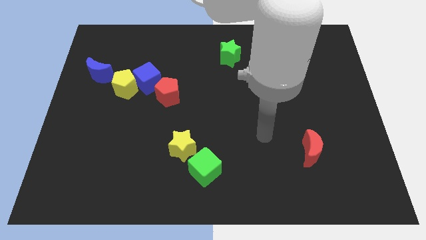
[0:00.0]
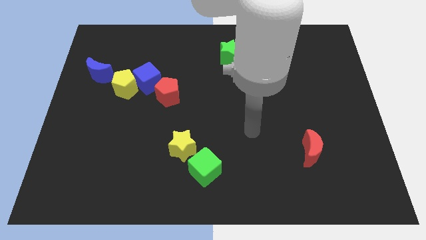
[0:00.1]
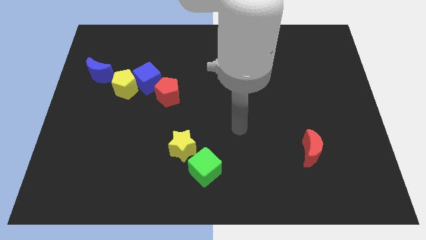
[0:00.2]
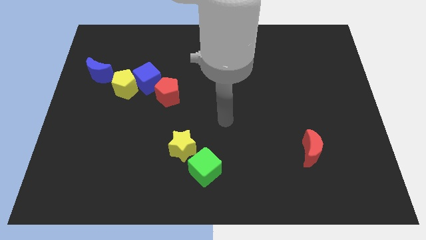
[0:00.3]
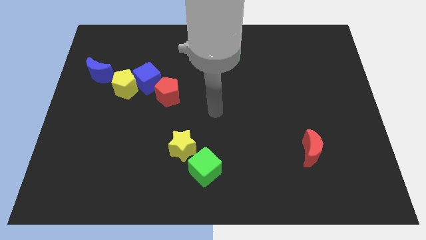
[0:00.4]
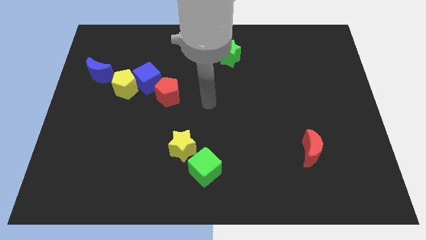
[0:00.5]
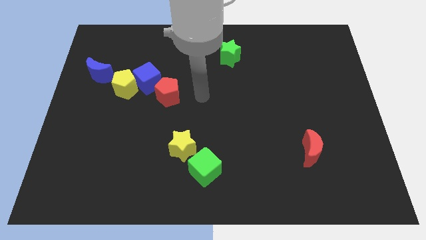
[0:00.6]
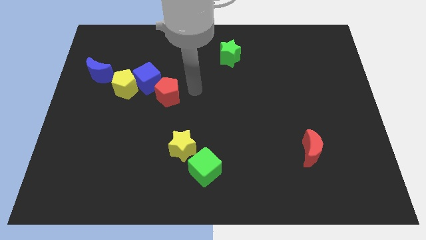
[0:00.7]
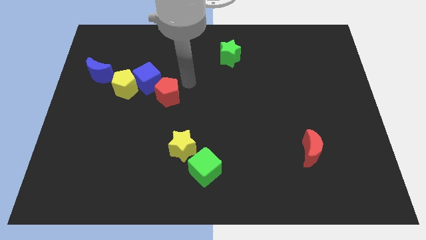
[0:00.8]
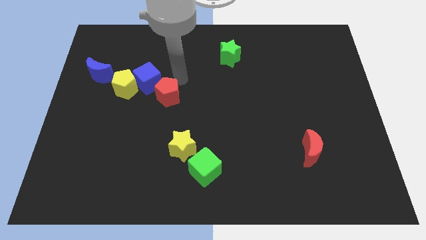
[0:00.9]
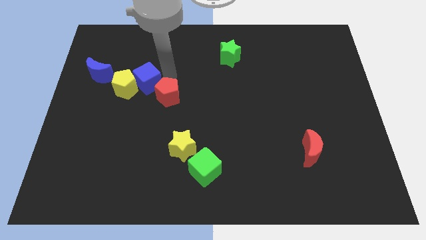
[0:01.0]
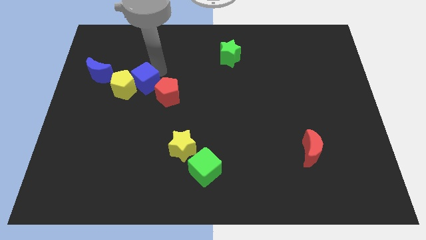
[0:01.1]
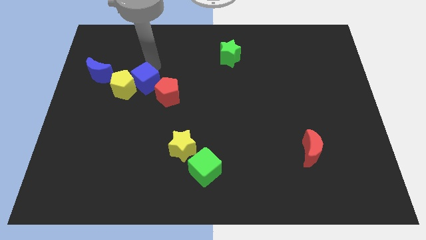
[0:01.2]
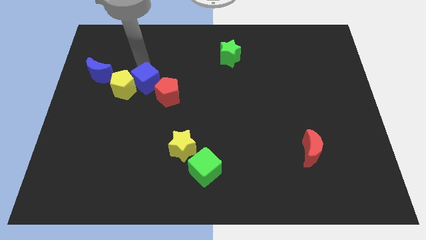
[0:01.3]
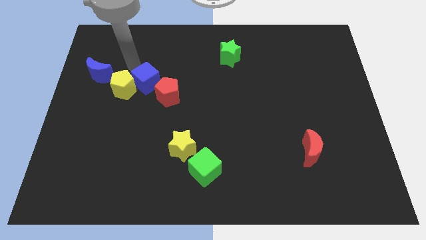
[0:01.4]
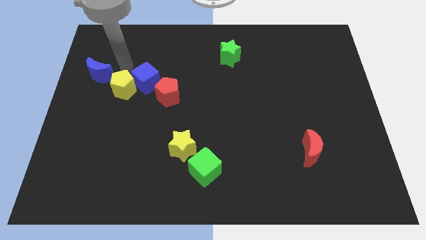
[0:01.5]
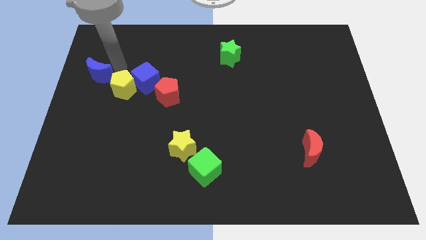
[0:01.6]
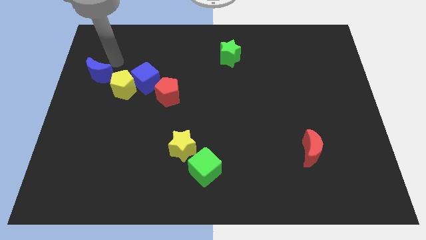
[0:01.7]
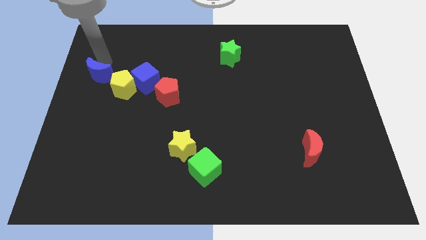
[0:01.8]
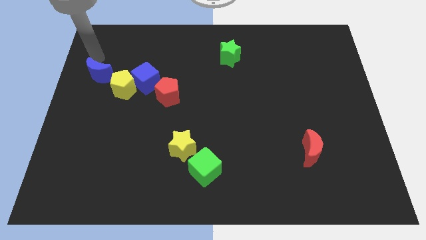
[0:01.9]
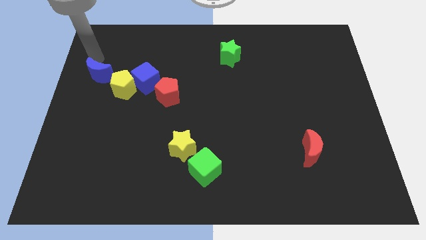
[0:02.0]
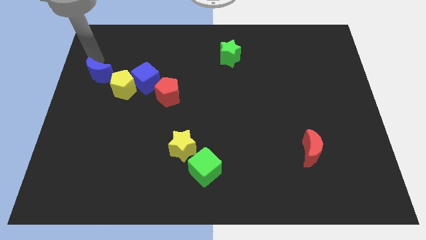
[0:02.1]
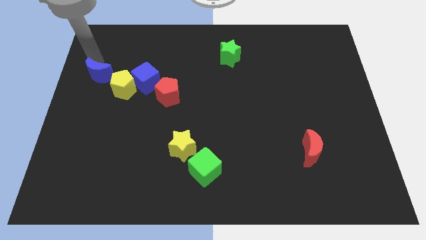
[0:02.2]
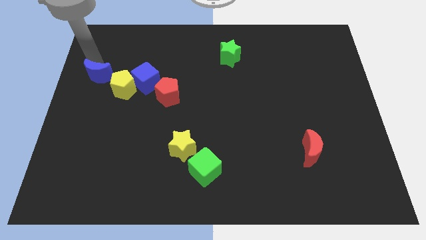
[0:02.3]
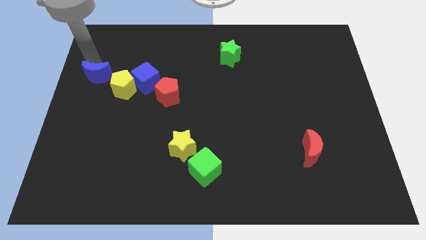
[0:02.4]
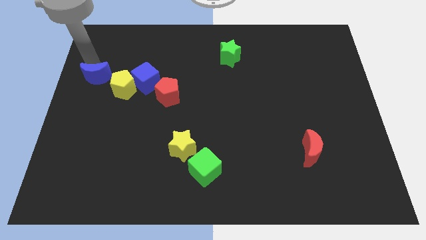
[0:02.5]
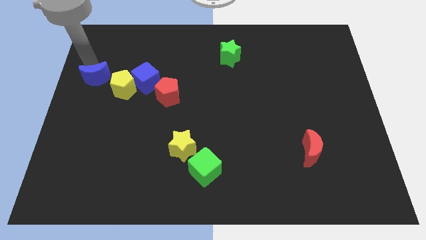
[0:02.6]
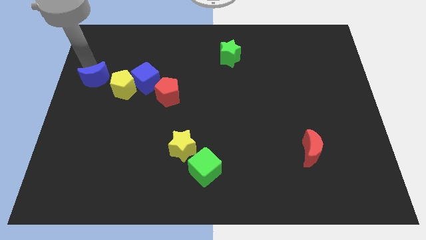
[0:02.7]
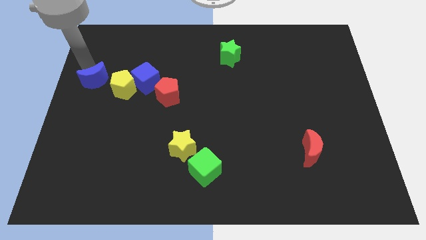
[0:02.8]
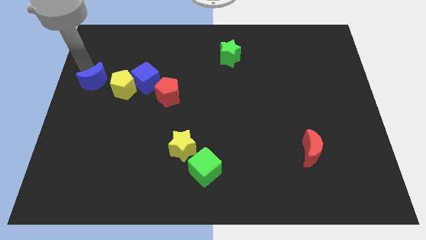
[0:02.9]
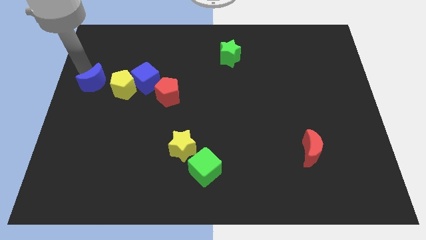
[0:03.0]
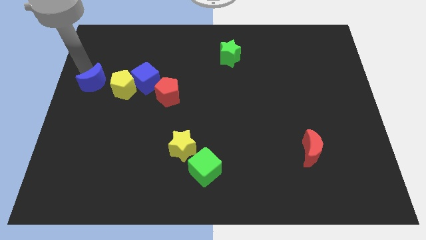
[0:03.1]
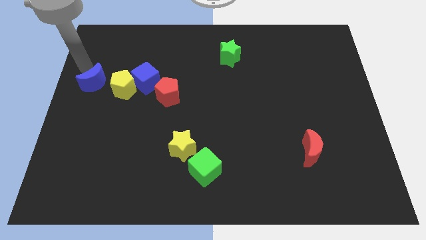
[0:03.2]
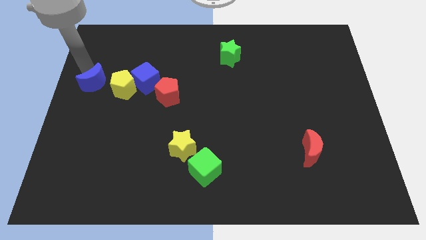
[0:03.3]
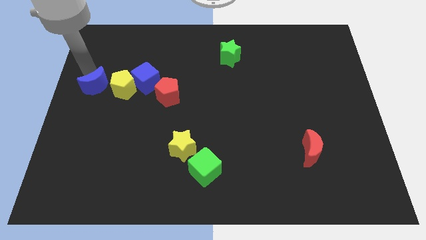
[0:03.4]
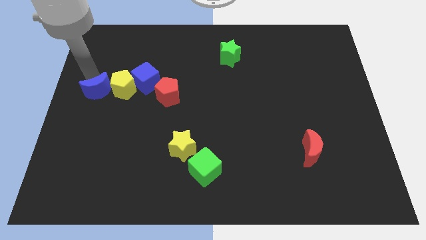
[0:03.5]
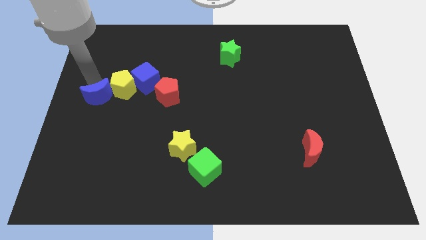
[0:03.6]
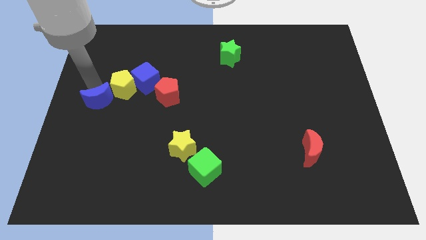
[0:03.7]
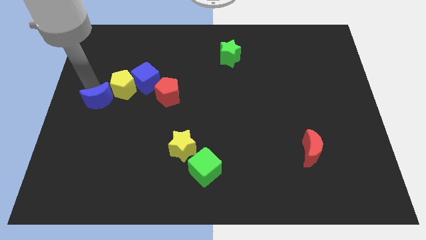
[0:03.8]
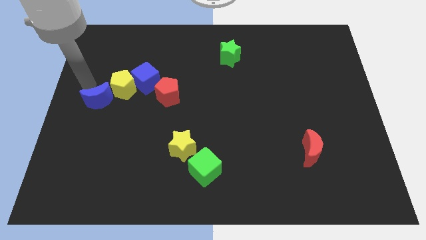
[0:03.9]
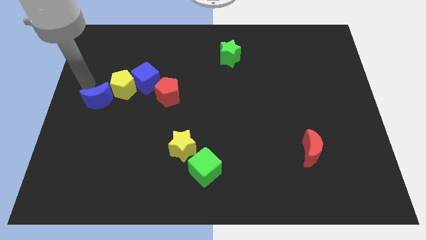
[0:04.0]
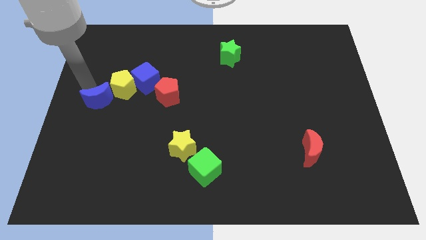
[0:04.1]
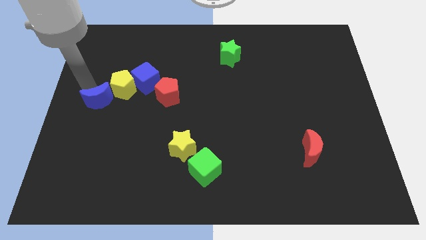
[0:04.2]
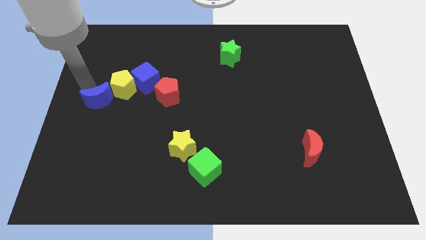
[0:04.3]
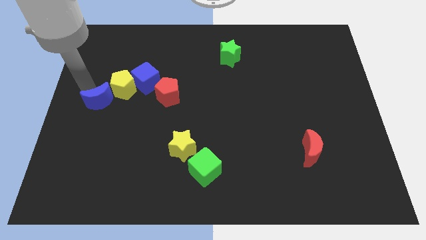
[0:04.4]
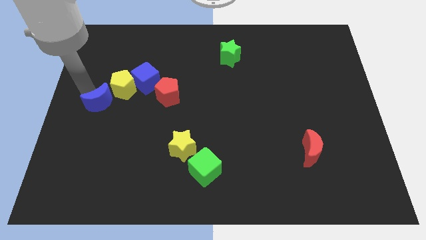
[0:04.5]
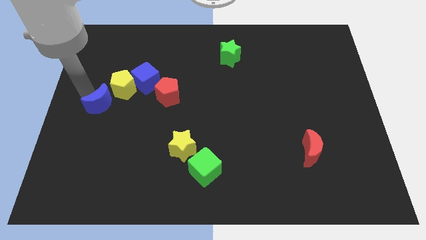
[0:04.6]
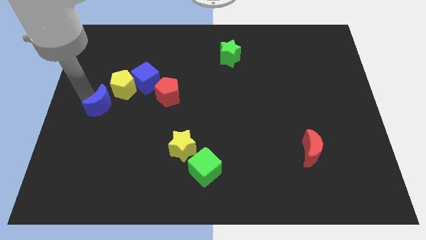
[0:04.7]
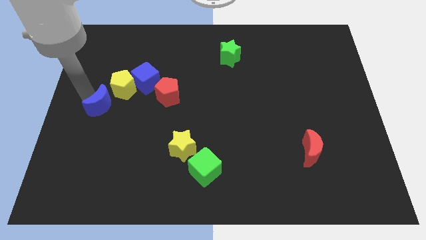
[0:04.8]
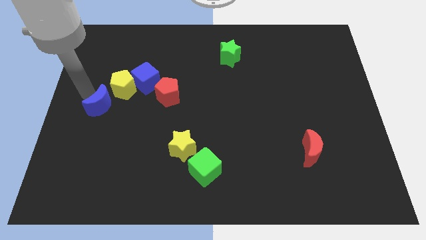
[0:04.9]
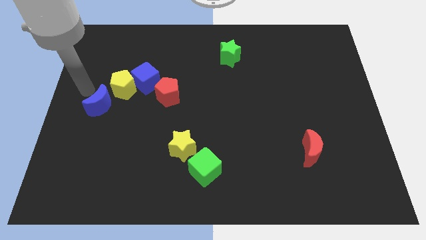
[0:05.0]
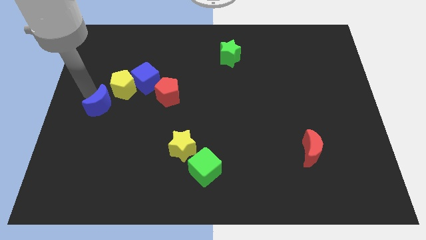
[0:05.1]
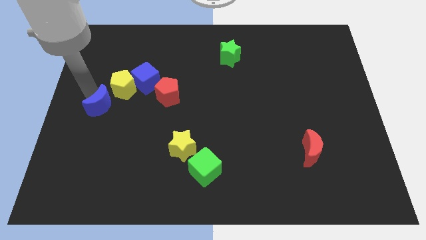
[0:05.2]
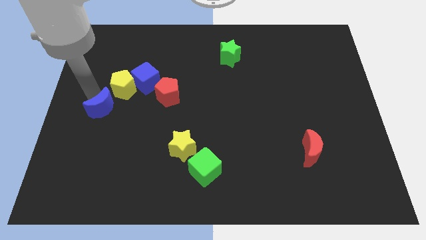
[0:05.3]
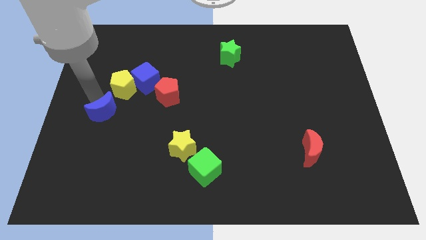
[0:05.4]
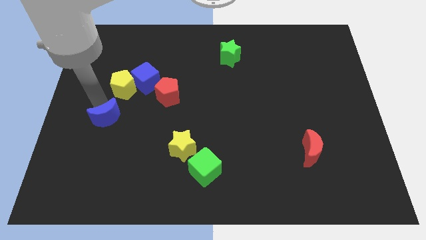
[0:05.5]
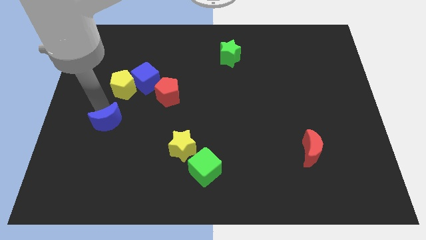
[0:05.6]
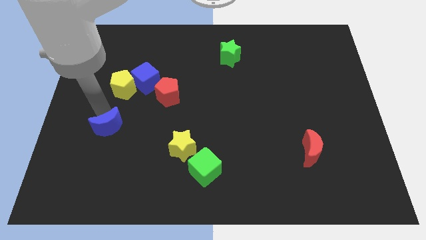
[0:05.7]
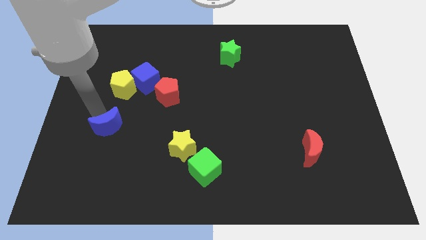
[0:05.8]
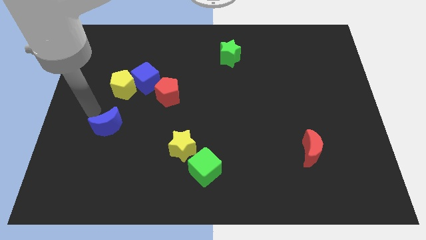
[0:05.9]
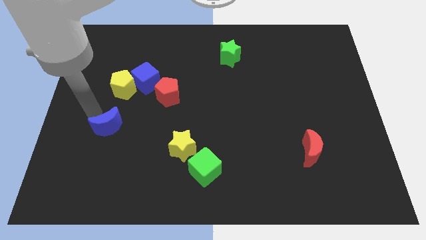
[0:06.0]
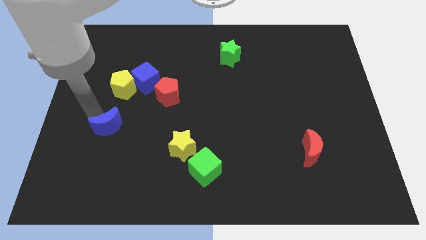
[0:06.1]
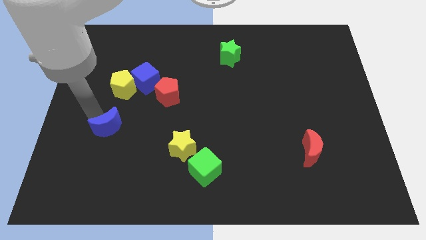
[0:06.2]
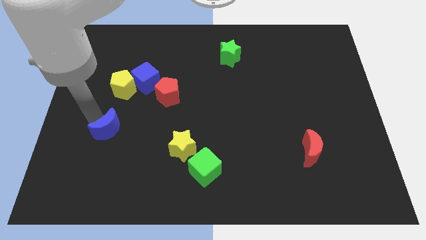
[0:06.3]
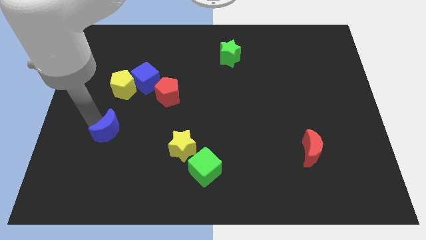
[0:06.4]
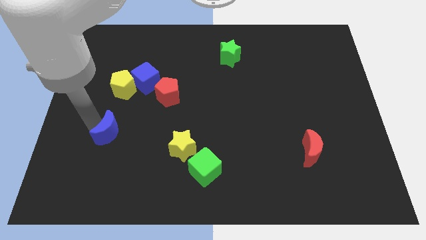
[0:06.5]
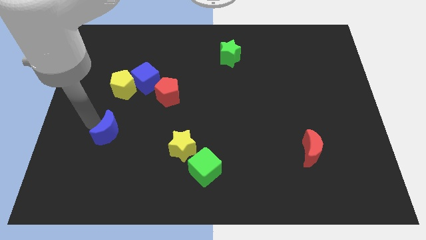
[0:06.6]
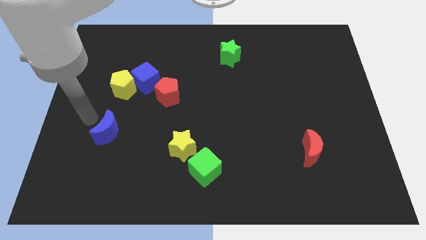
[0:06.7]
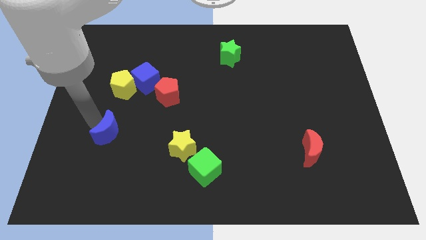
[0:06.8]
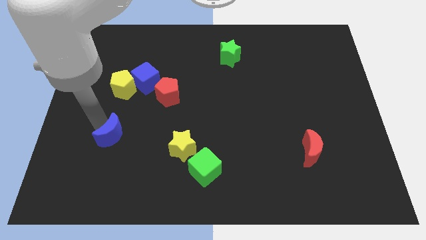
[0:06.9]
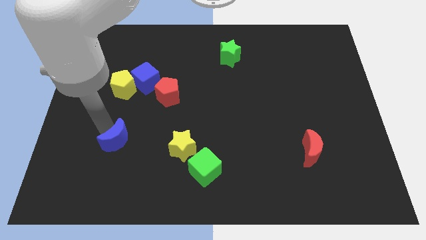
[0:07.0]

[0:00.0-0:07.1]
push the blue moon just left of the yellow star
